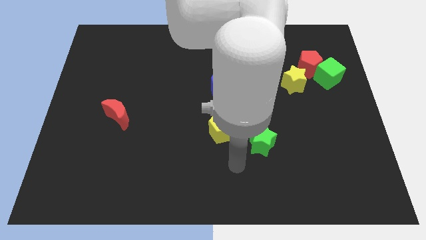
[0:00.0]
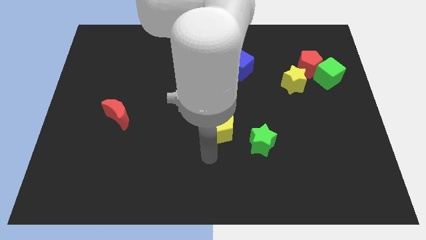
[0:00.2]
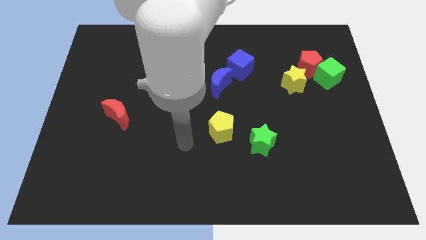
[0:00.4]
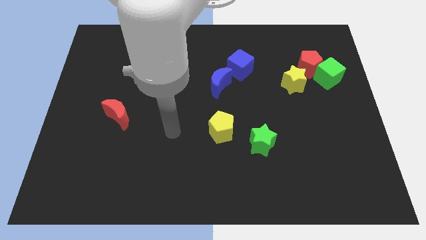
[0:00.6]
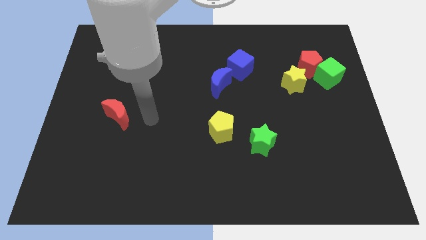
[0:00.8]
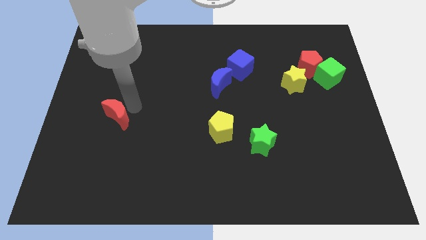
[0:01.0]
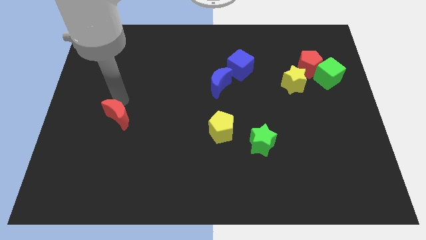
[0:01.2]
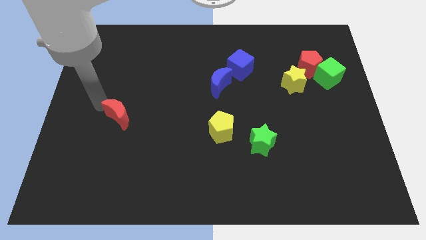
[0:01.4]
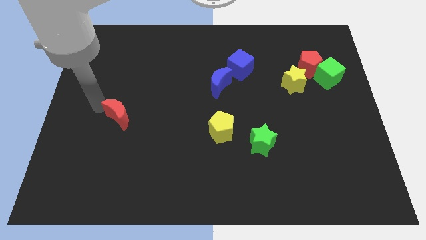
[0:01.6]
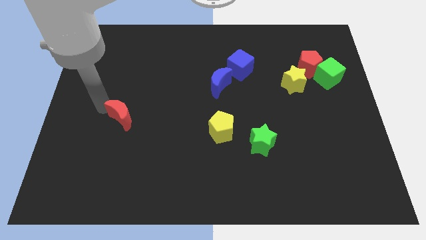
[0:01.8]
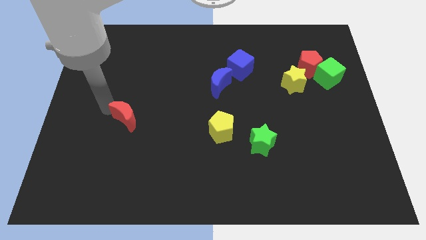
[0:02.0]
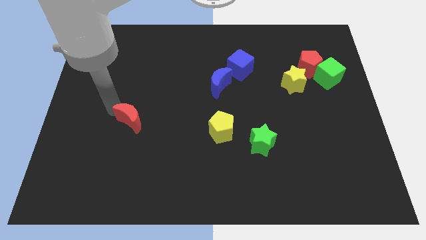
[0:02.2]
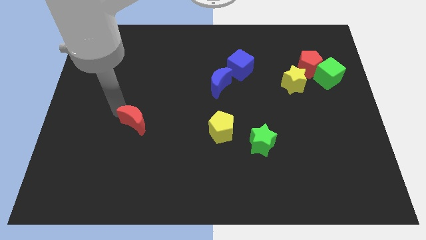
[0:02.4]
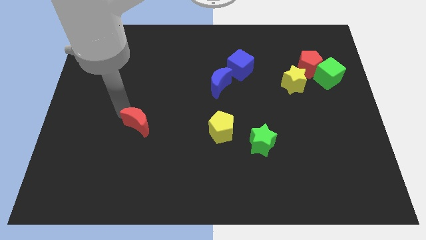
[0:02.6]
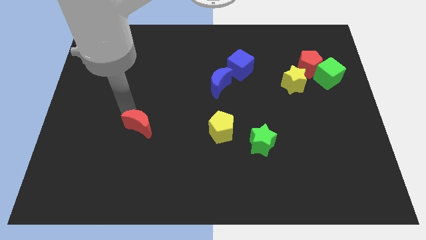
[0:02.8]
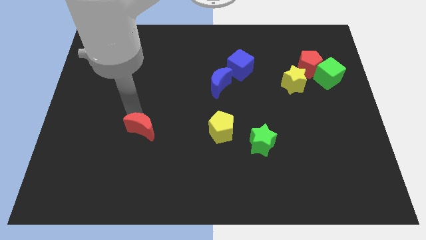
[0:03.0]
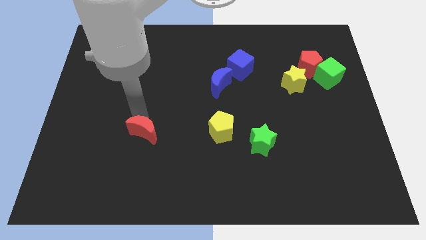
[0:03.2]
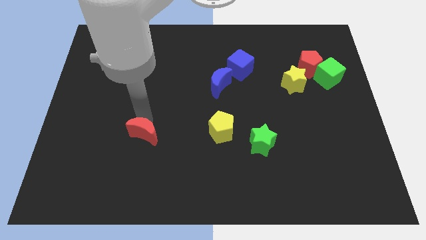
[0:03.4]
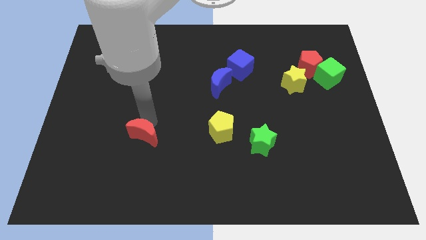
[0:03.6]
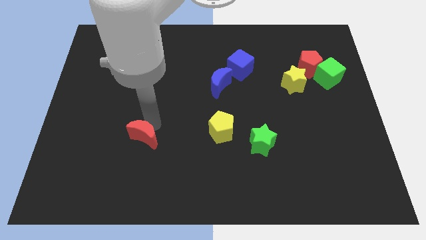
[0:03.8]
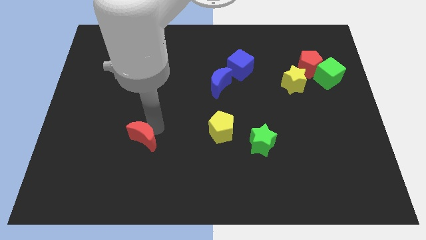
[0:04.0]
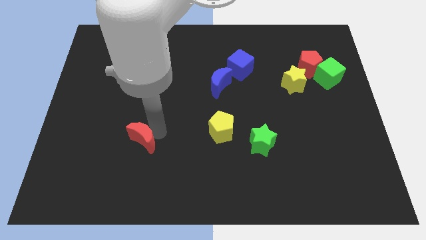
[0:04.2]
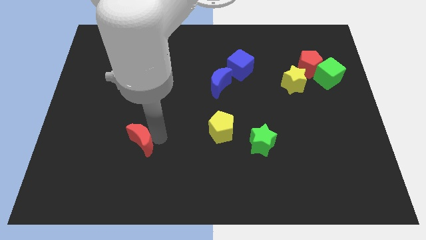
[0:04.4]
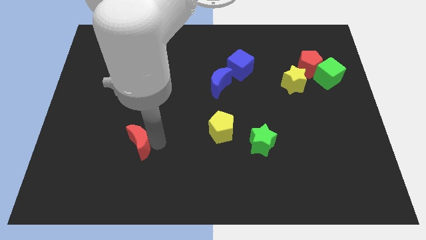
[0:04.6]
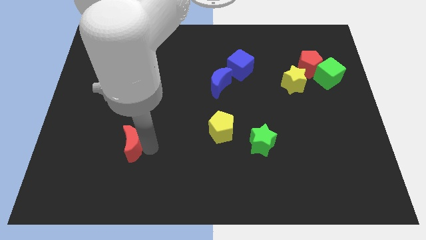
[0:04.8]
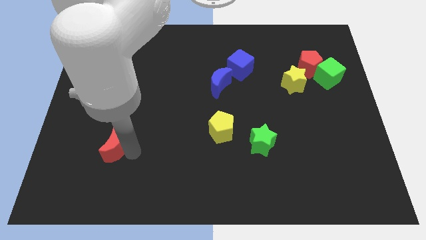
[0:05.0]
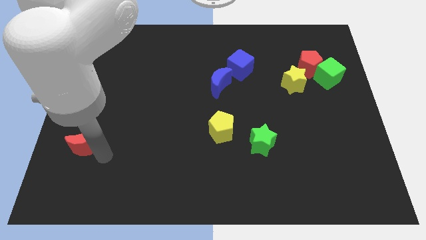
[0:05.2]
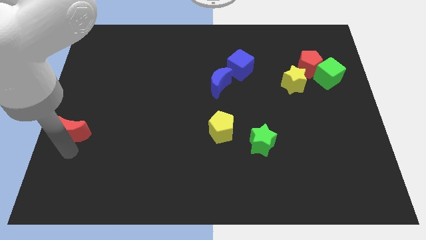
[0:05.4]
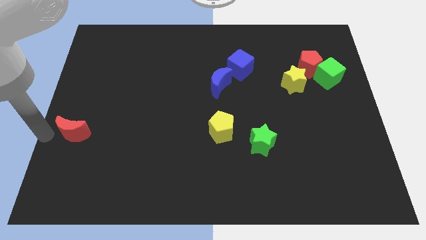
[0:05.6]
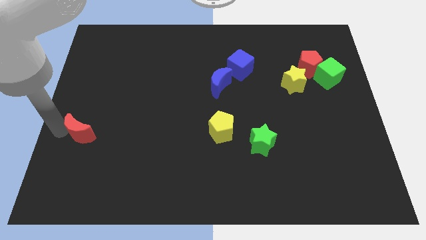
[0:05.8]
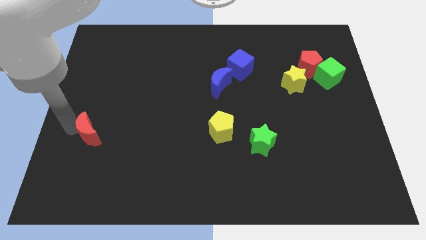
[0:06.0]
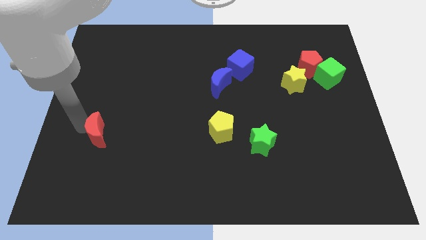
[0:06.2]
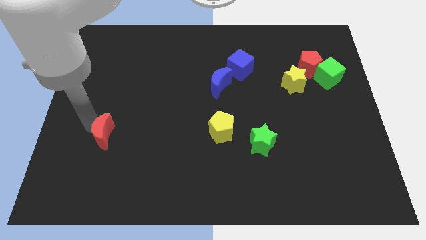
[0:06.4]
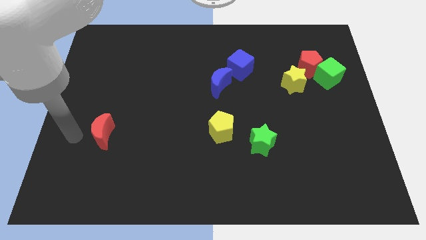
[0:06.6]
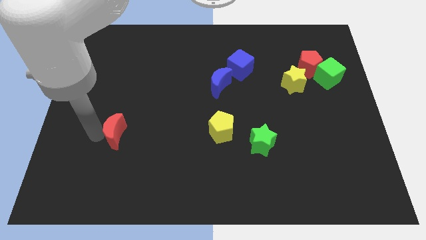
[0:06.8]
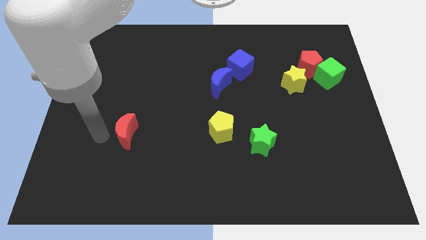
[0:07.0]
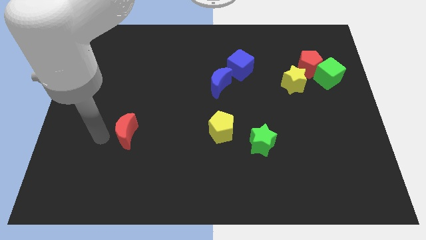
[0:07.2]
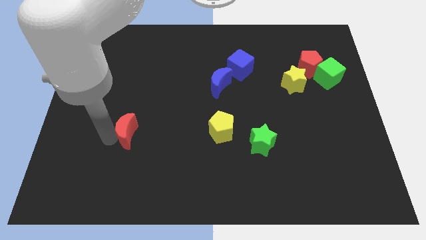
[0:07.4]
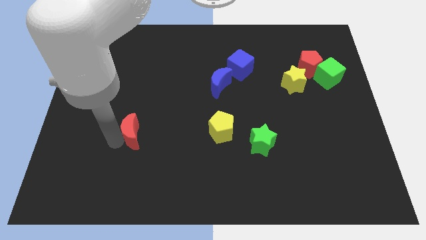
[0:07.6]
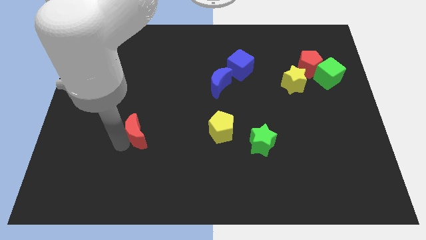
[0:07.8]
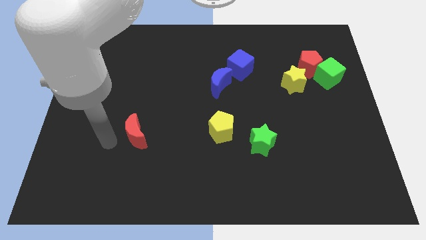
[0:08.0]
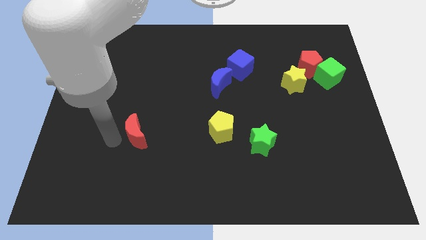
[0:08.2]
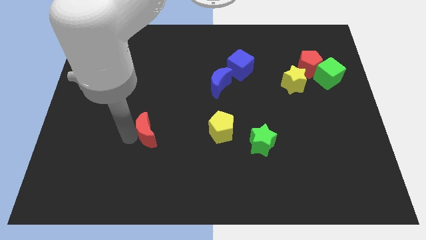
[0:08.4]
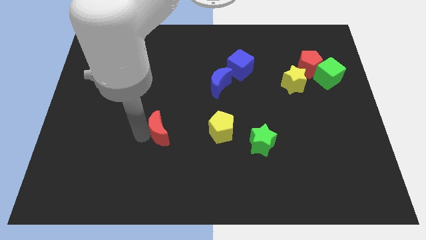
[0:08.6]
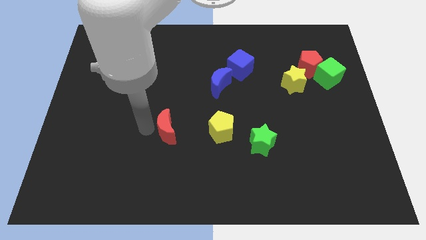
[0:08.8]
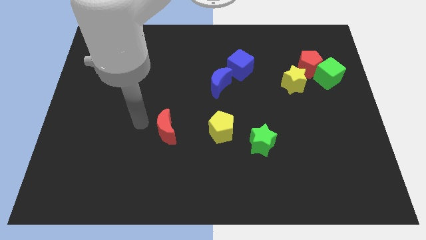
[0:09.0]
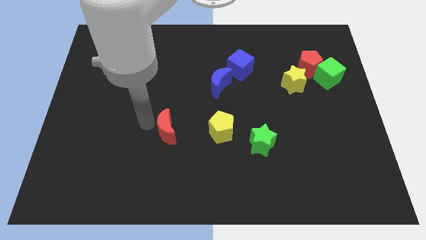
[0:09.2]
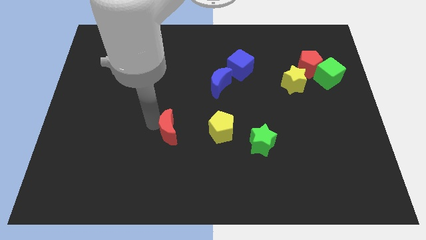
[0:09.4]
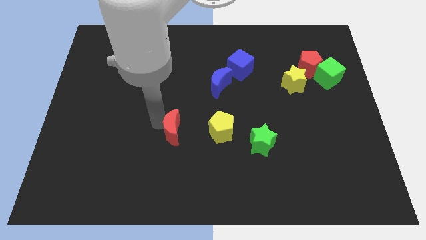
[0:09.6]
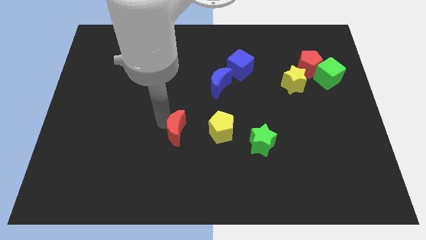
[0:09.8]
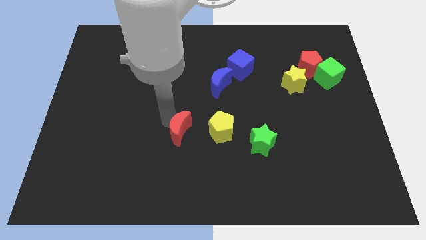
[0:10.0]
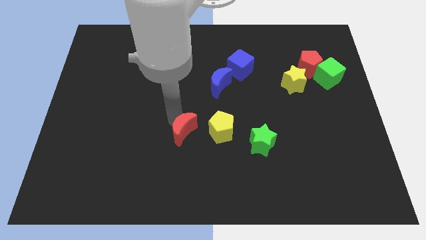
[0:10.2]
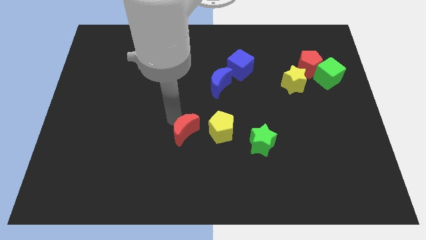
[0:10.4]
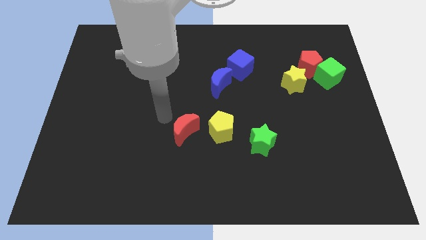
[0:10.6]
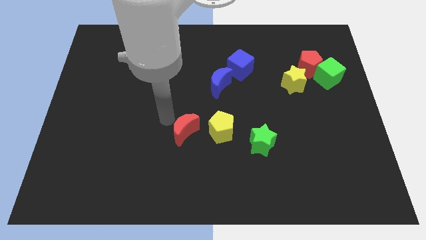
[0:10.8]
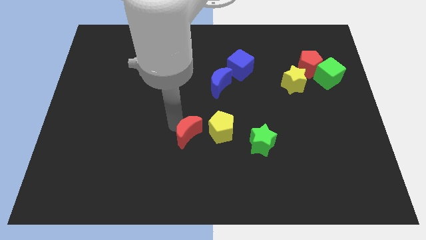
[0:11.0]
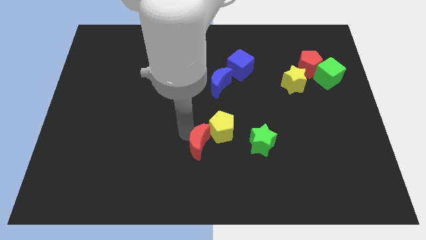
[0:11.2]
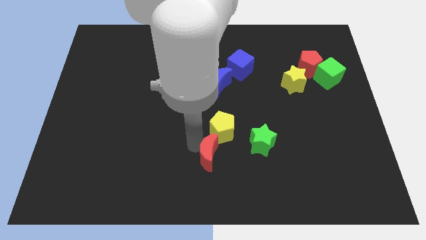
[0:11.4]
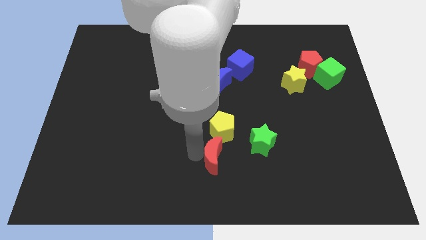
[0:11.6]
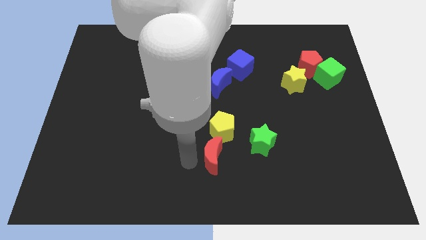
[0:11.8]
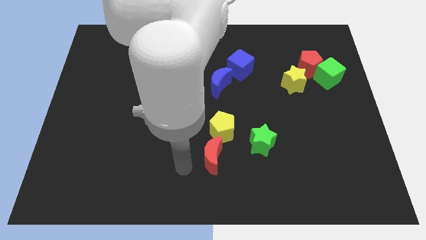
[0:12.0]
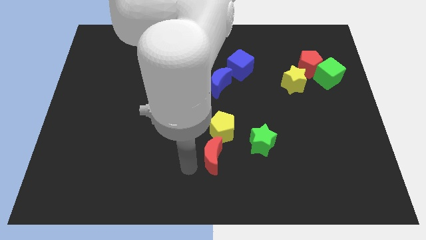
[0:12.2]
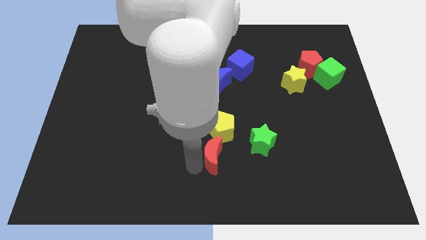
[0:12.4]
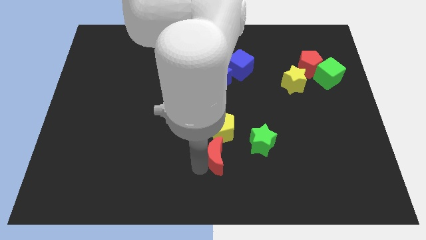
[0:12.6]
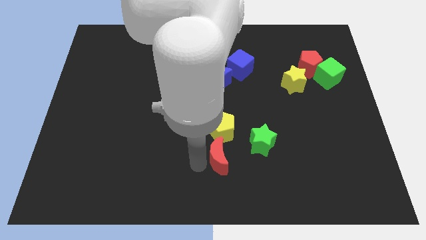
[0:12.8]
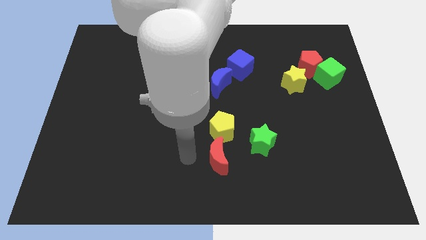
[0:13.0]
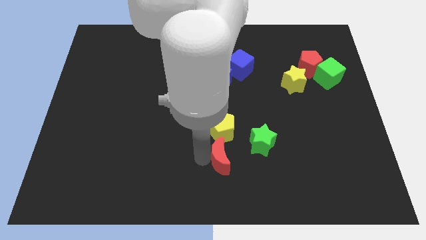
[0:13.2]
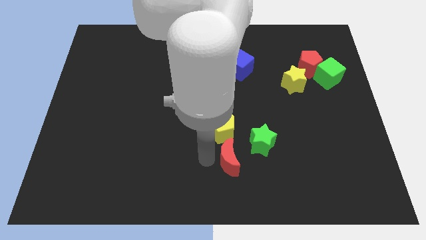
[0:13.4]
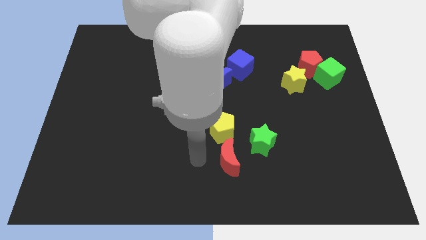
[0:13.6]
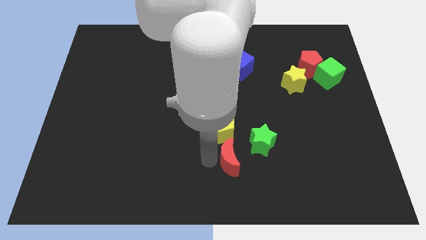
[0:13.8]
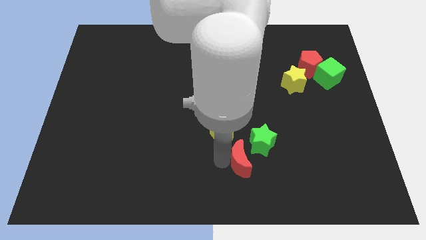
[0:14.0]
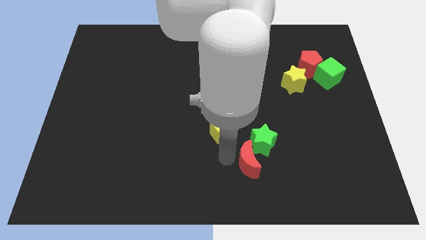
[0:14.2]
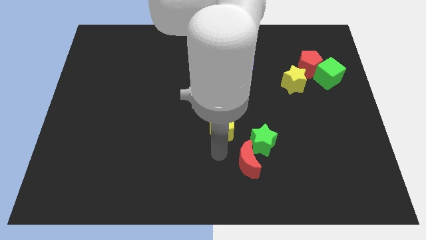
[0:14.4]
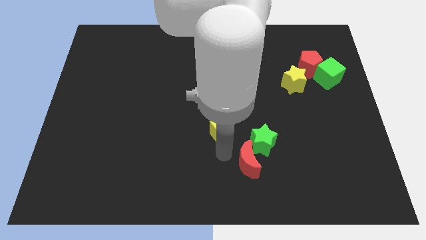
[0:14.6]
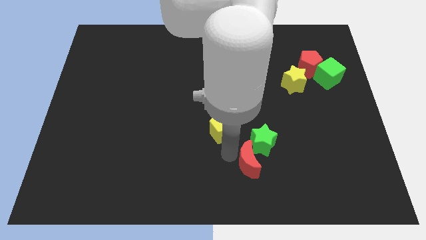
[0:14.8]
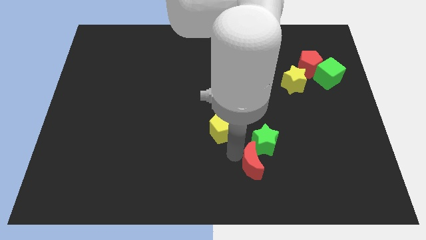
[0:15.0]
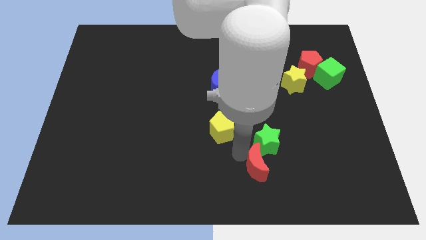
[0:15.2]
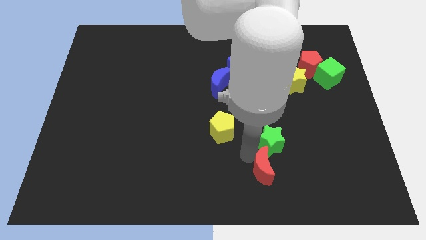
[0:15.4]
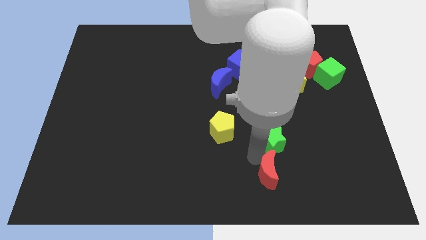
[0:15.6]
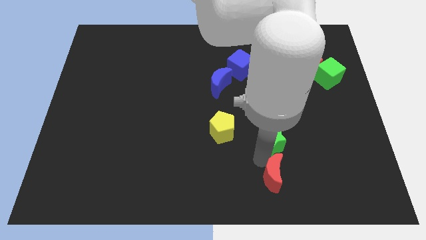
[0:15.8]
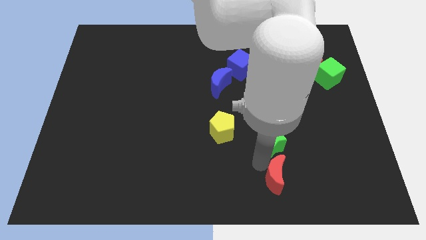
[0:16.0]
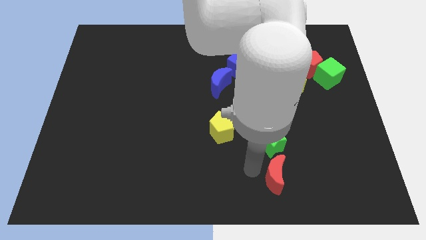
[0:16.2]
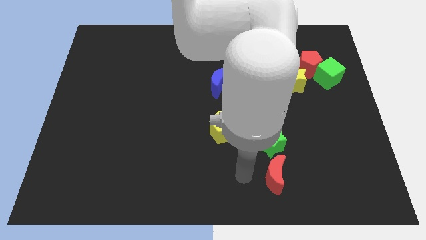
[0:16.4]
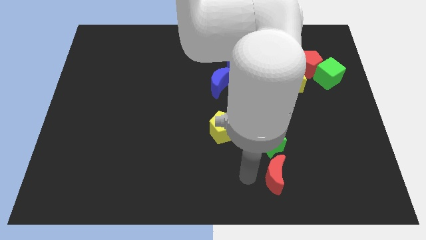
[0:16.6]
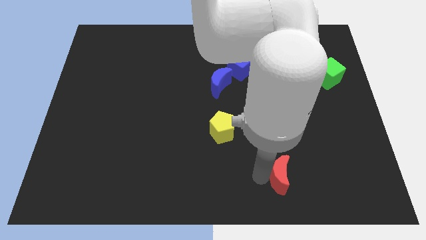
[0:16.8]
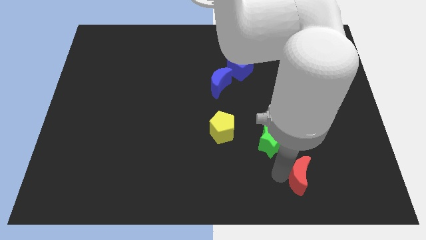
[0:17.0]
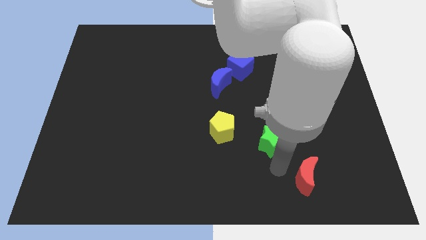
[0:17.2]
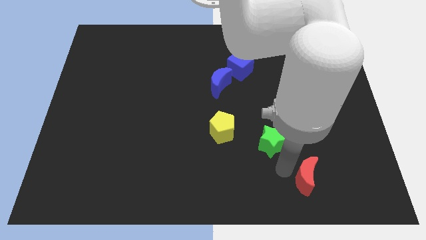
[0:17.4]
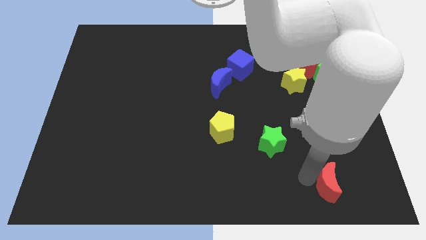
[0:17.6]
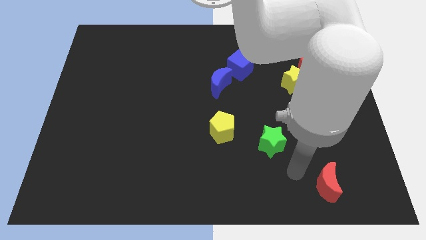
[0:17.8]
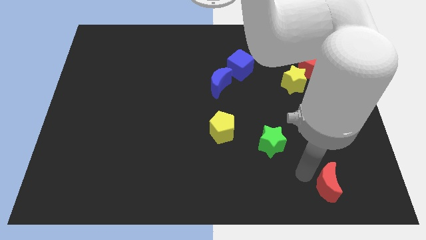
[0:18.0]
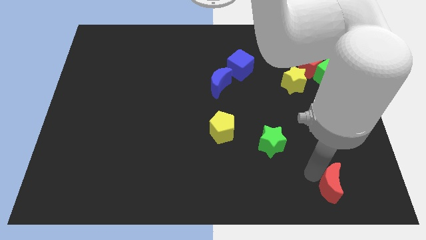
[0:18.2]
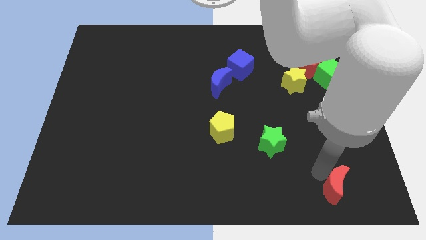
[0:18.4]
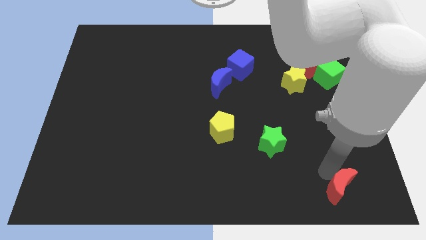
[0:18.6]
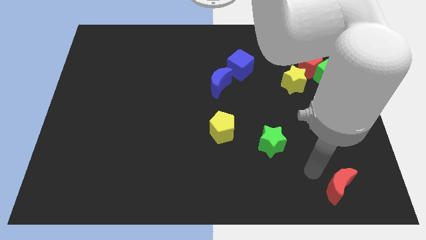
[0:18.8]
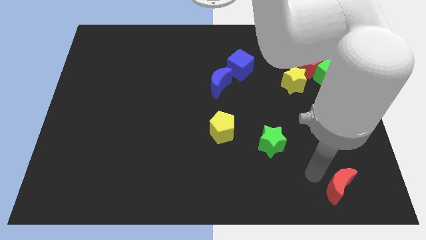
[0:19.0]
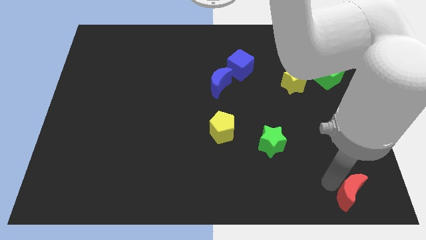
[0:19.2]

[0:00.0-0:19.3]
put the red moon to the bottom right
